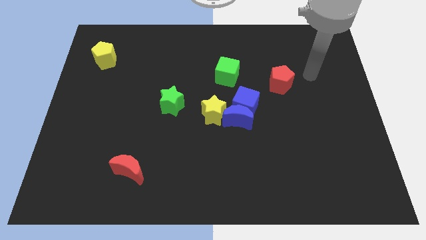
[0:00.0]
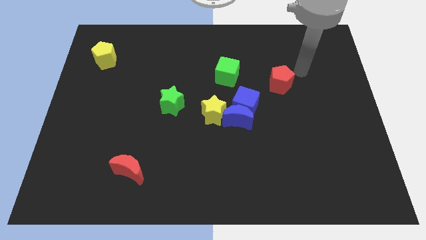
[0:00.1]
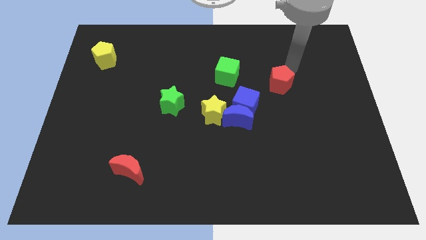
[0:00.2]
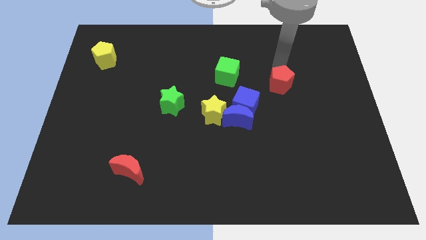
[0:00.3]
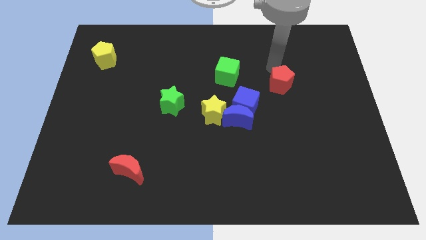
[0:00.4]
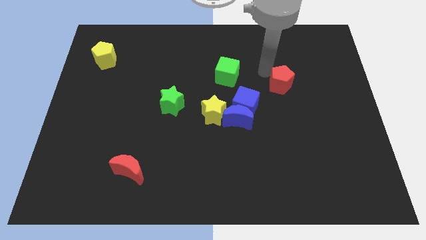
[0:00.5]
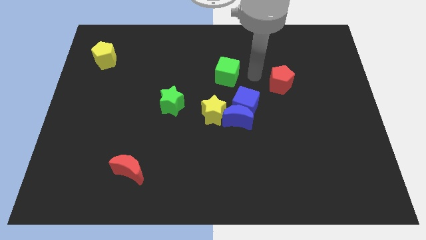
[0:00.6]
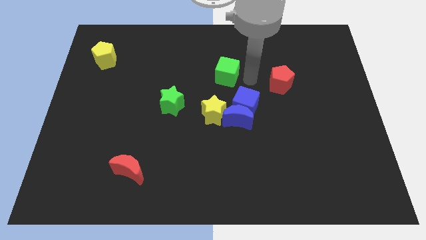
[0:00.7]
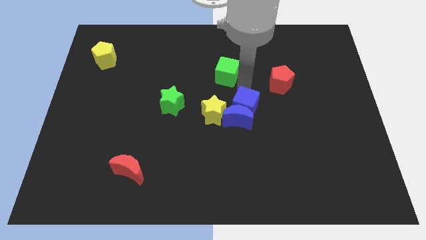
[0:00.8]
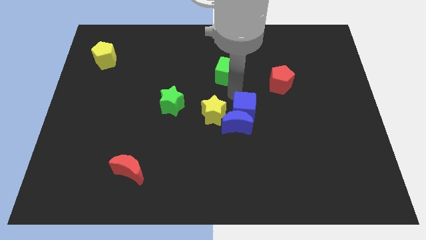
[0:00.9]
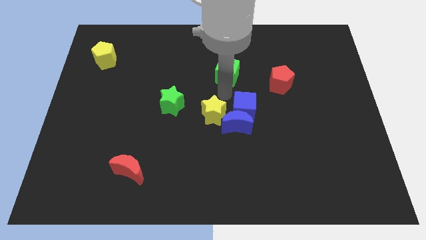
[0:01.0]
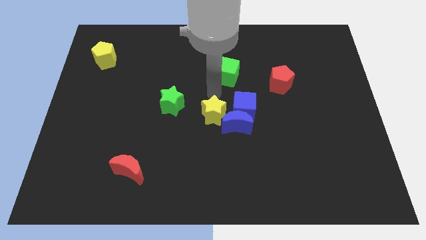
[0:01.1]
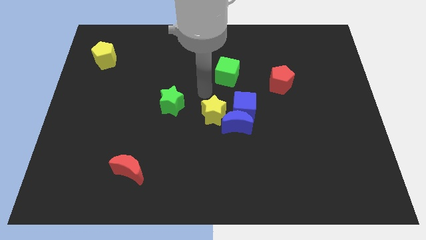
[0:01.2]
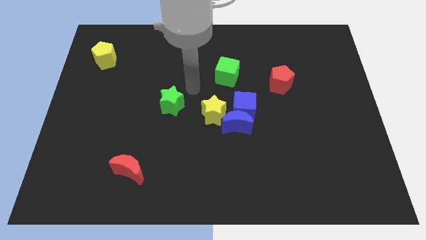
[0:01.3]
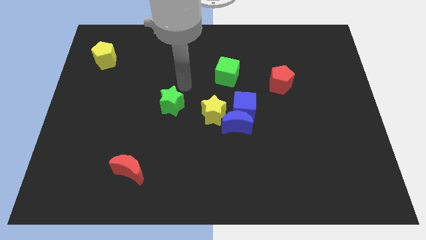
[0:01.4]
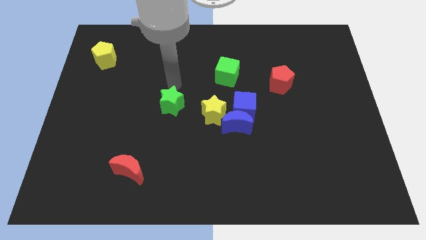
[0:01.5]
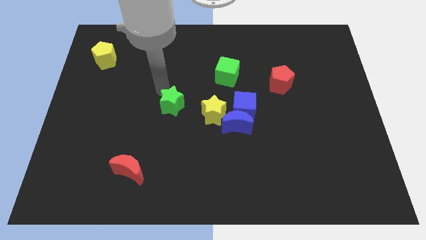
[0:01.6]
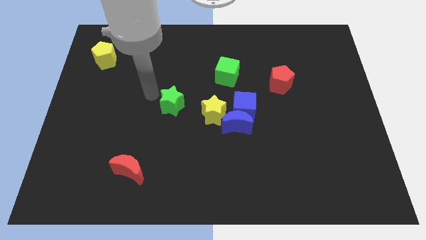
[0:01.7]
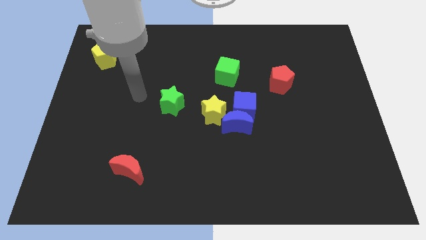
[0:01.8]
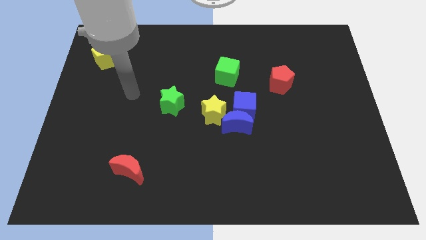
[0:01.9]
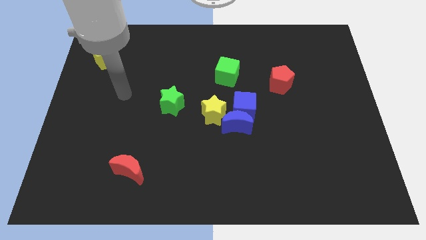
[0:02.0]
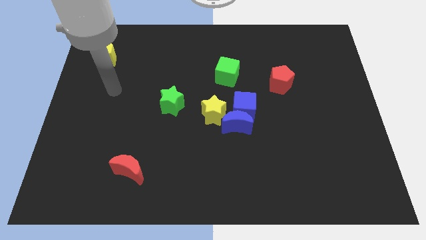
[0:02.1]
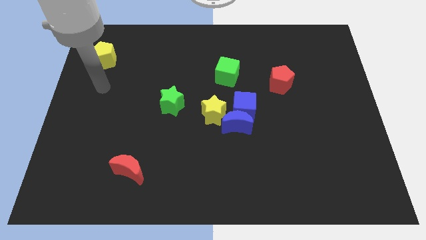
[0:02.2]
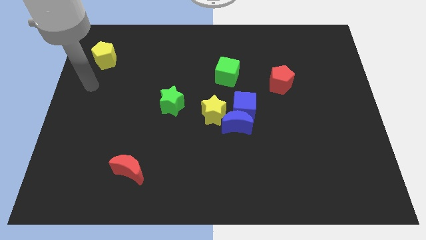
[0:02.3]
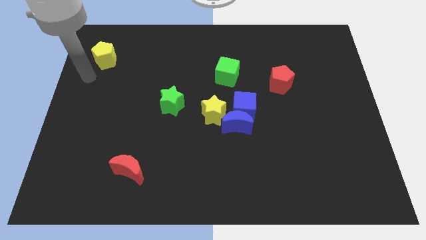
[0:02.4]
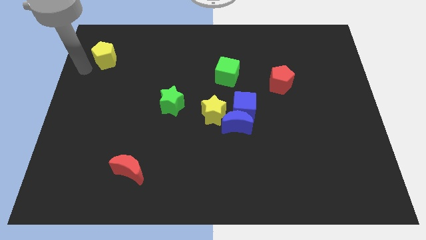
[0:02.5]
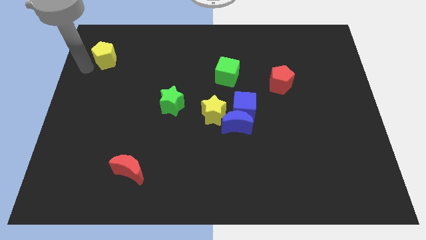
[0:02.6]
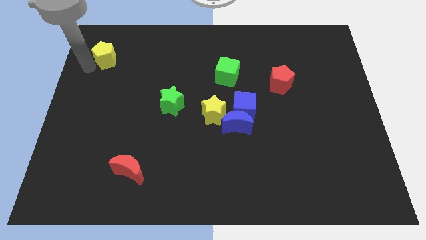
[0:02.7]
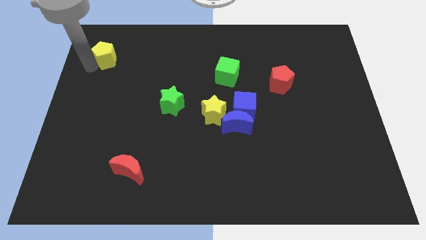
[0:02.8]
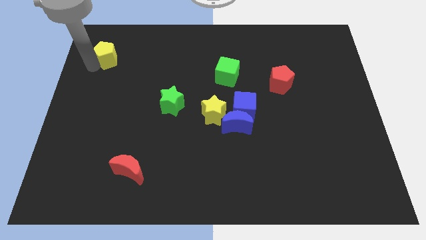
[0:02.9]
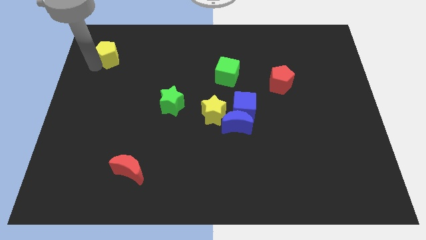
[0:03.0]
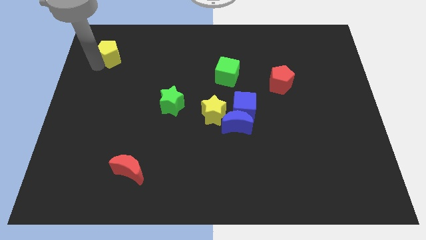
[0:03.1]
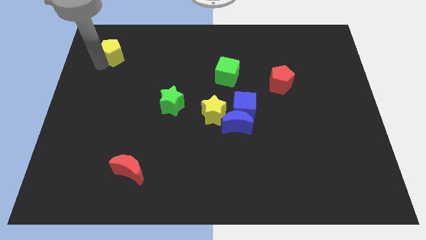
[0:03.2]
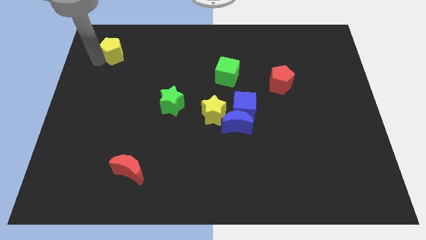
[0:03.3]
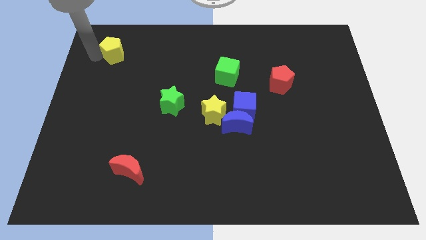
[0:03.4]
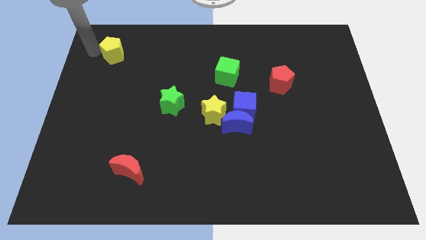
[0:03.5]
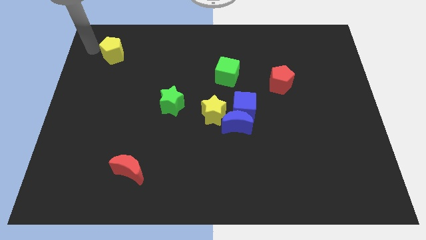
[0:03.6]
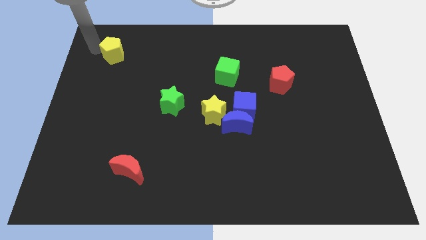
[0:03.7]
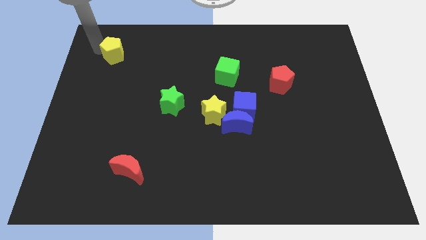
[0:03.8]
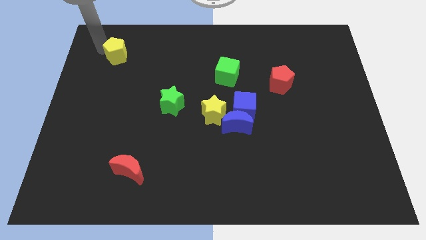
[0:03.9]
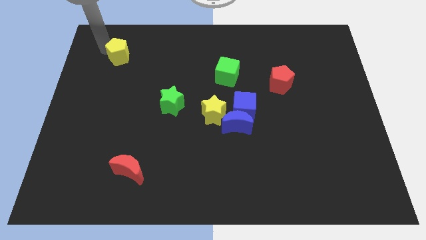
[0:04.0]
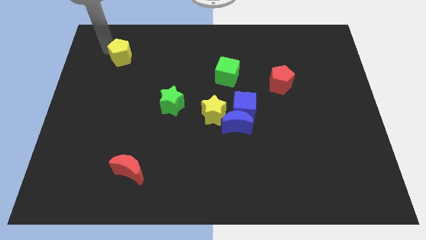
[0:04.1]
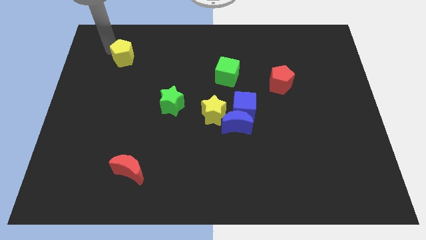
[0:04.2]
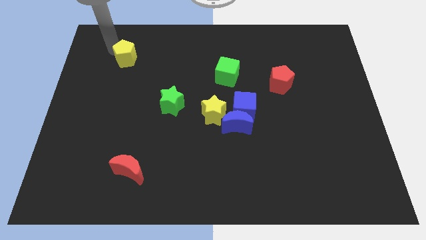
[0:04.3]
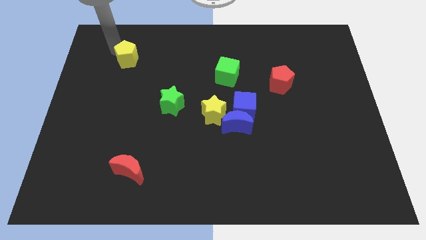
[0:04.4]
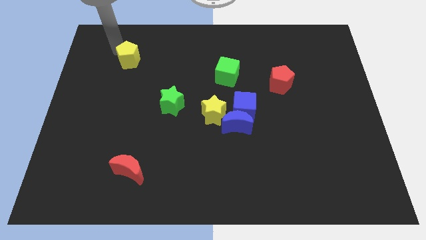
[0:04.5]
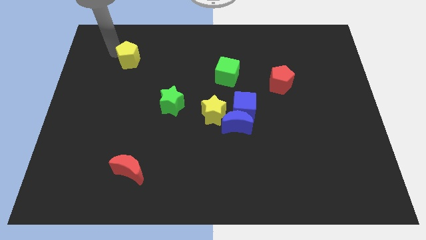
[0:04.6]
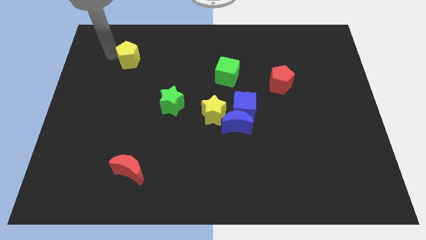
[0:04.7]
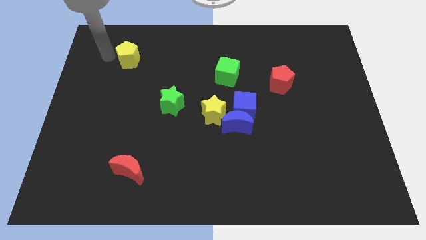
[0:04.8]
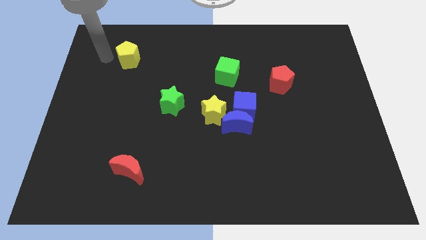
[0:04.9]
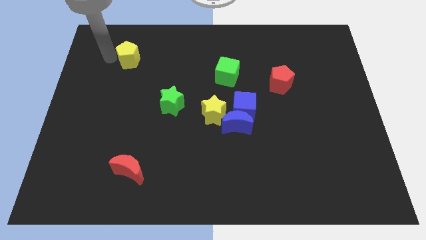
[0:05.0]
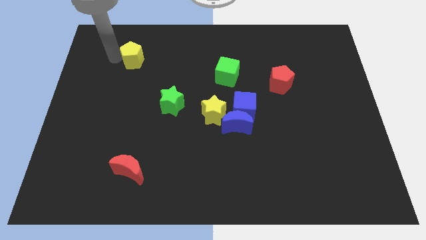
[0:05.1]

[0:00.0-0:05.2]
move the yellow pentagon right a bit

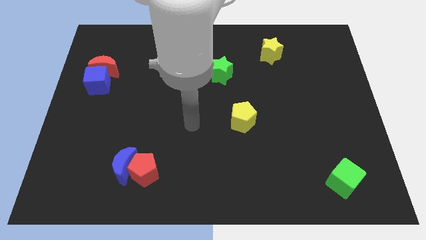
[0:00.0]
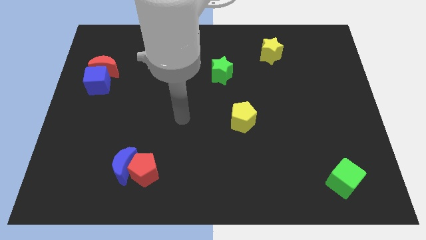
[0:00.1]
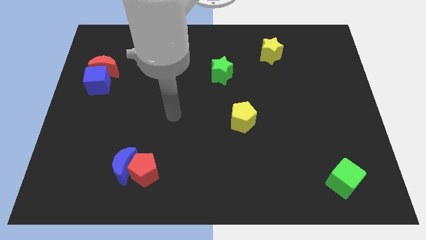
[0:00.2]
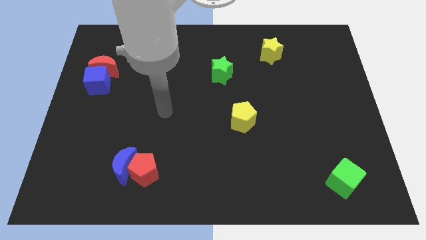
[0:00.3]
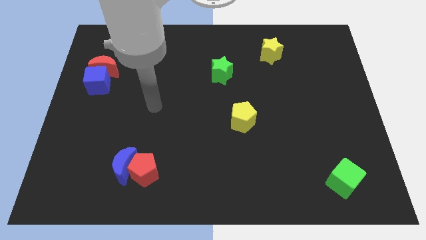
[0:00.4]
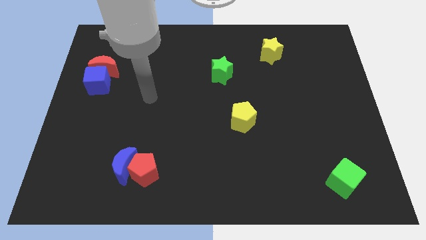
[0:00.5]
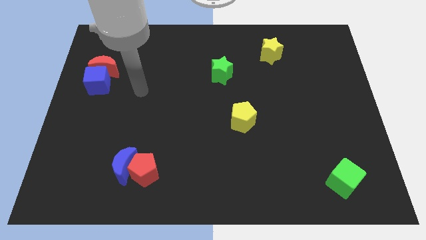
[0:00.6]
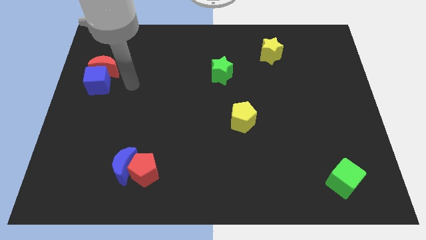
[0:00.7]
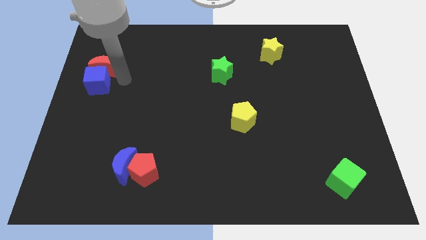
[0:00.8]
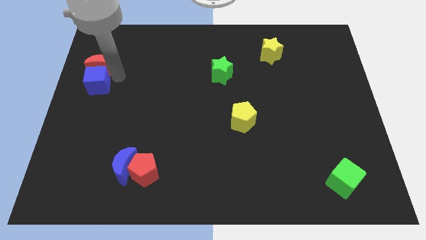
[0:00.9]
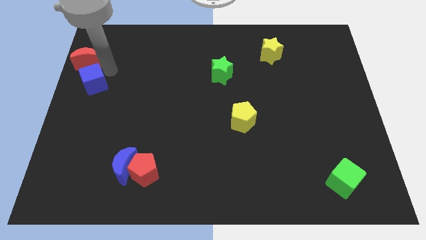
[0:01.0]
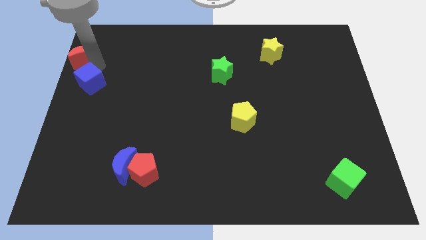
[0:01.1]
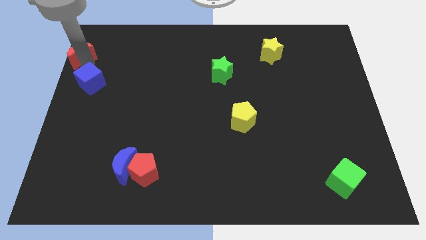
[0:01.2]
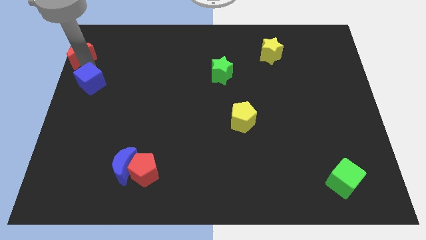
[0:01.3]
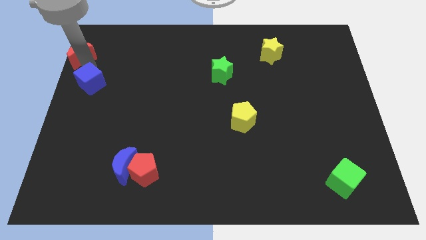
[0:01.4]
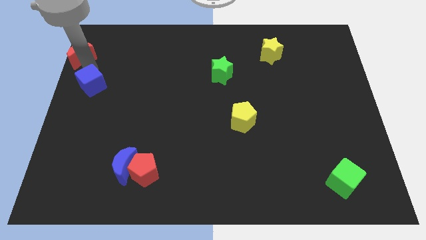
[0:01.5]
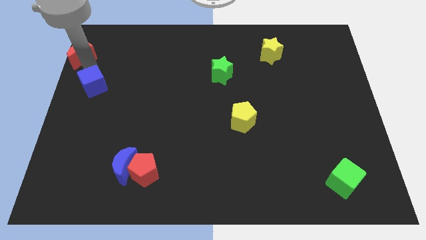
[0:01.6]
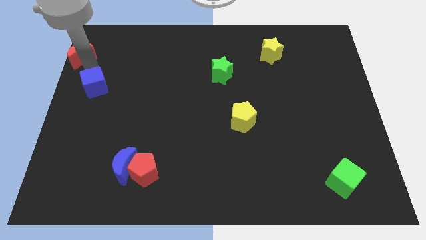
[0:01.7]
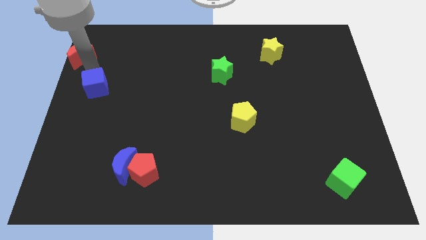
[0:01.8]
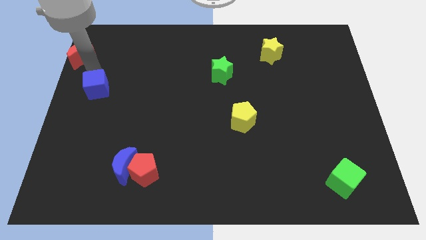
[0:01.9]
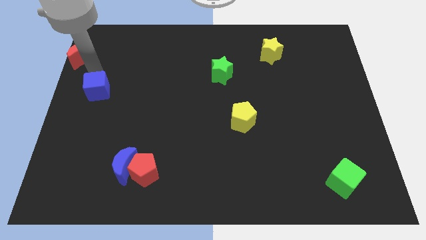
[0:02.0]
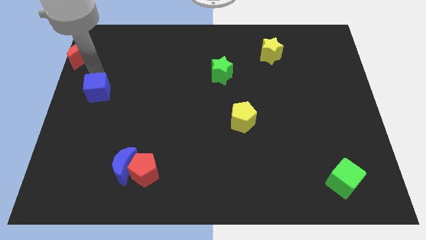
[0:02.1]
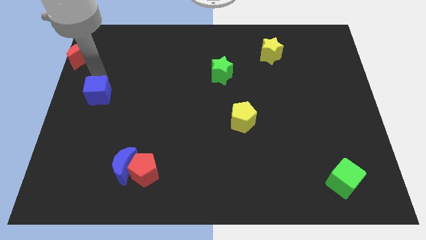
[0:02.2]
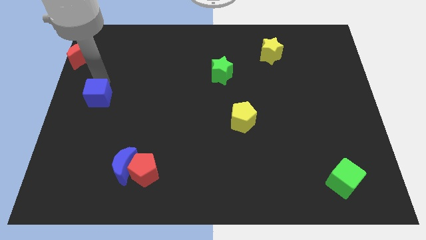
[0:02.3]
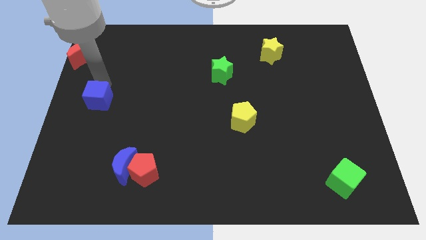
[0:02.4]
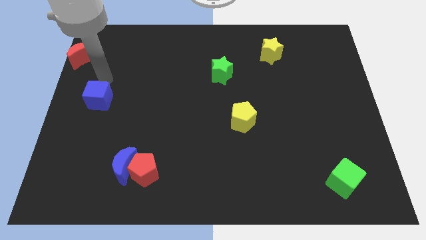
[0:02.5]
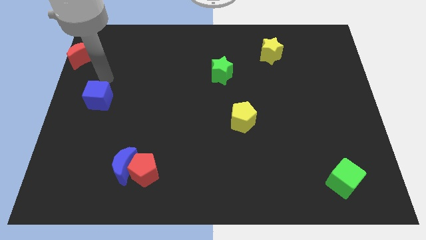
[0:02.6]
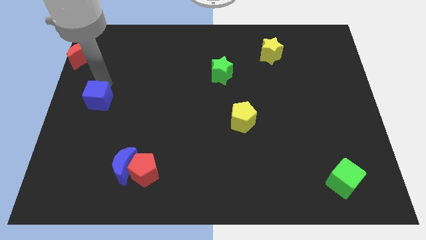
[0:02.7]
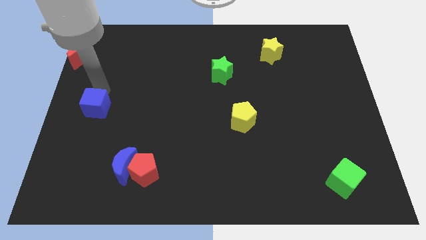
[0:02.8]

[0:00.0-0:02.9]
move the blue cube downwards somewhat
